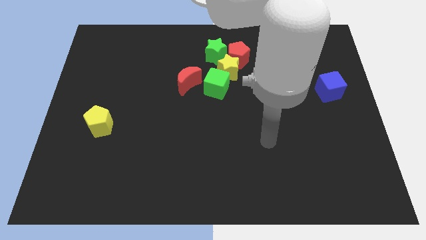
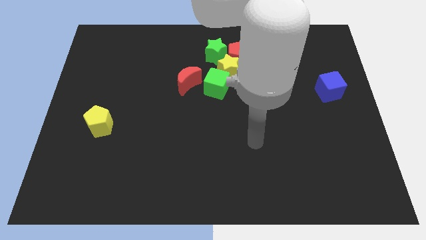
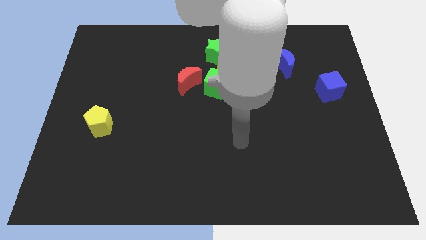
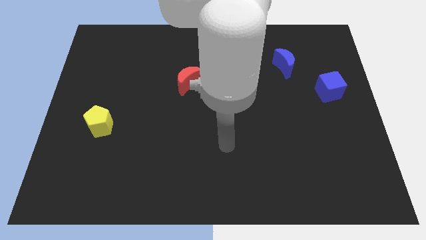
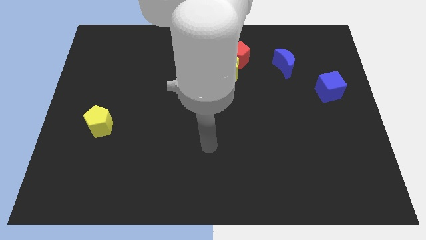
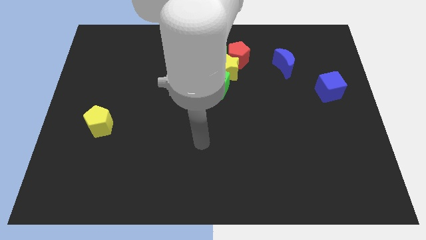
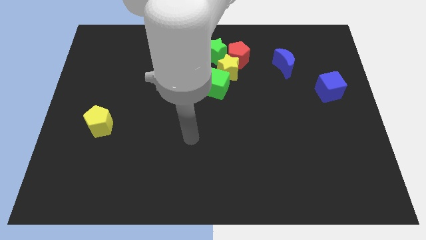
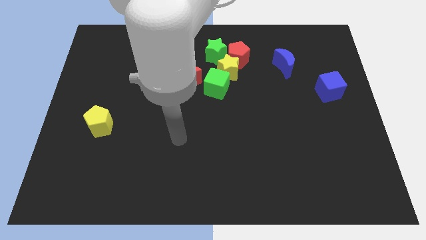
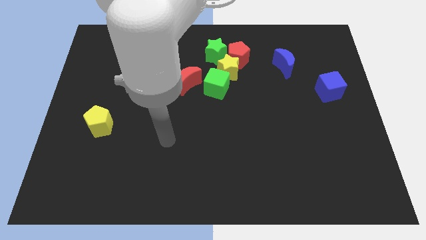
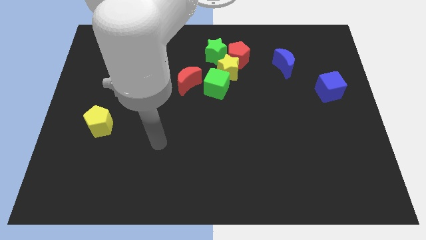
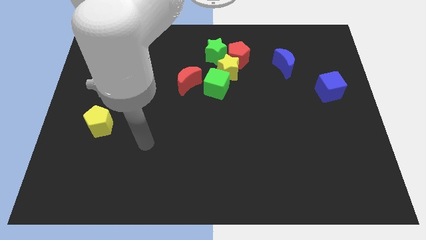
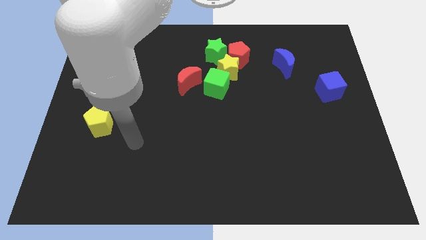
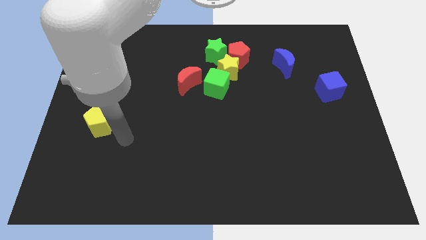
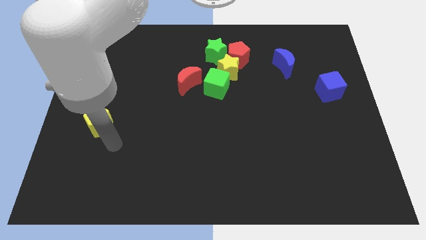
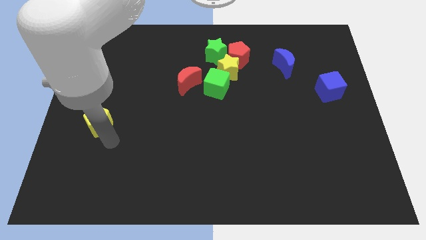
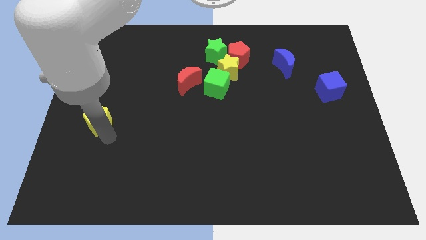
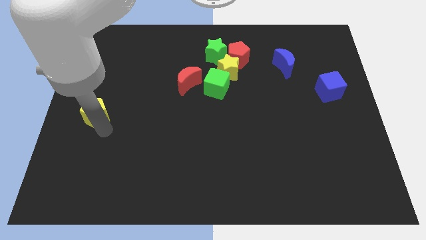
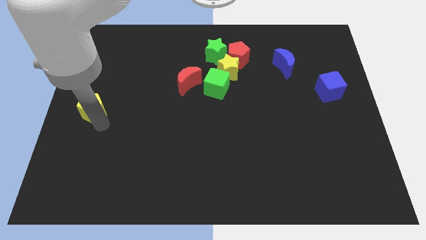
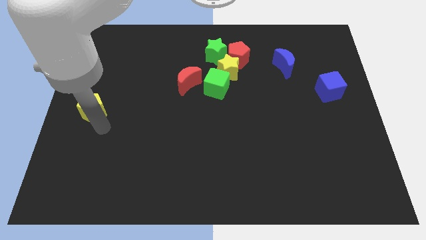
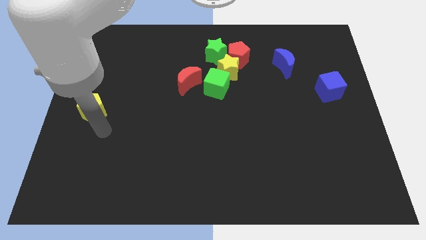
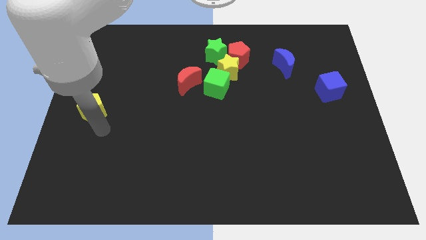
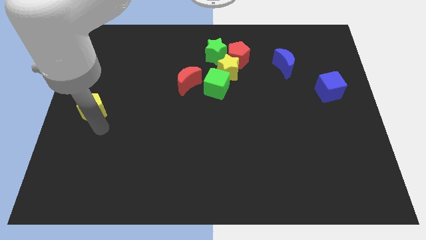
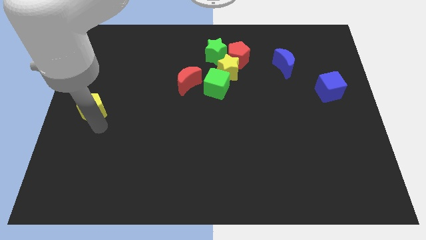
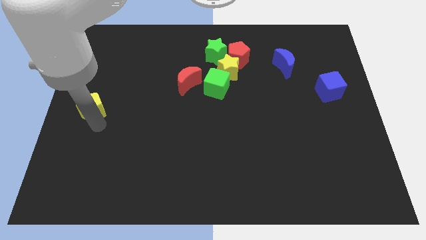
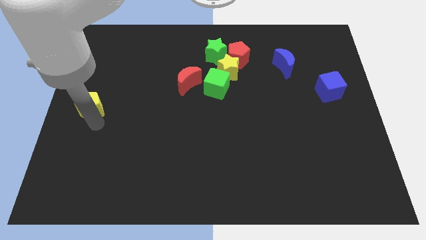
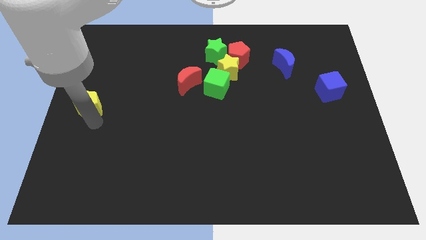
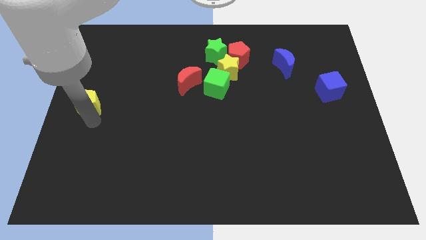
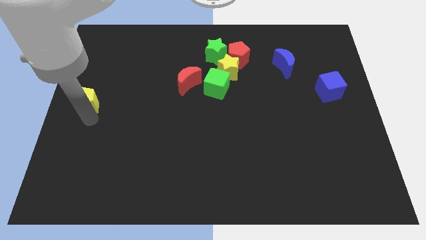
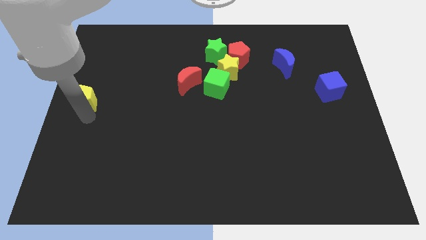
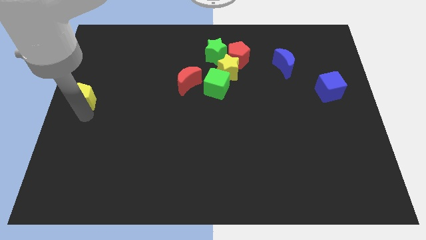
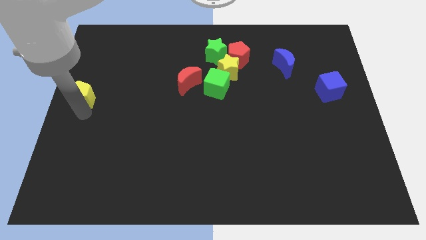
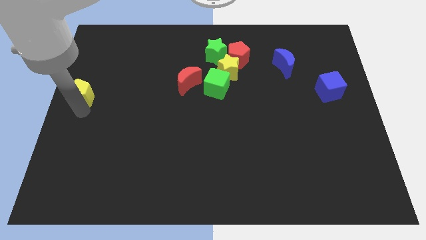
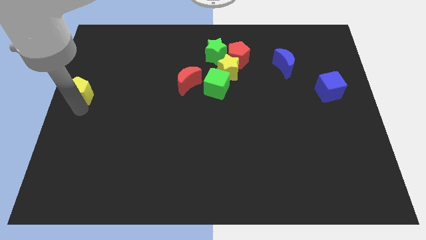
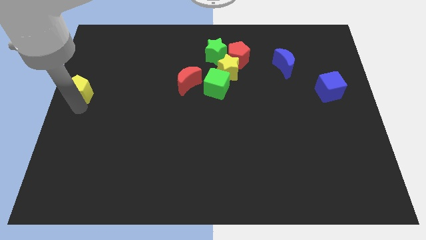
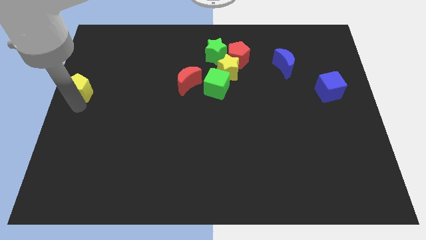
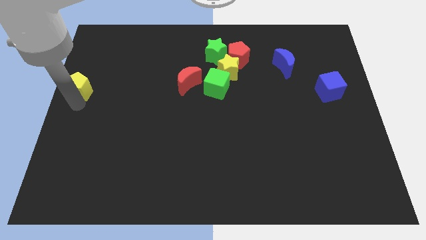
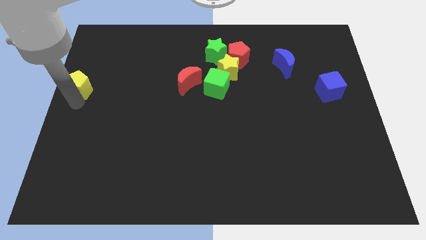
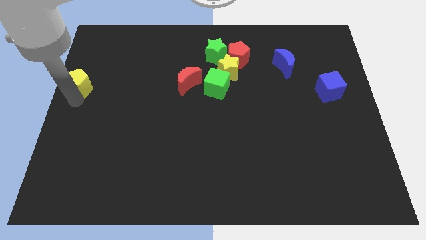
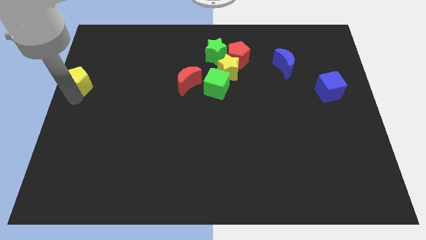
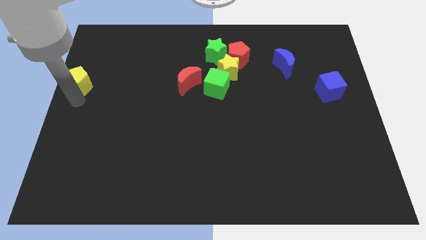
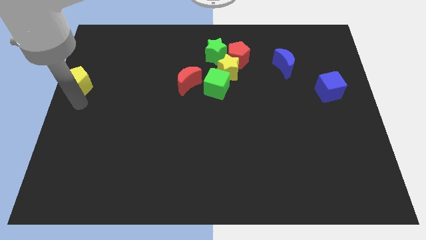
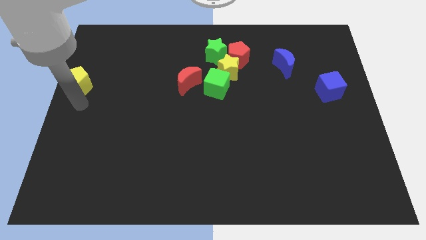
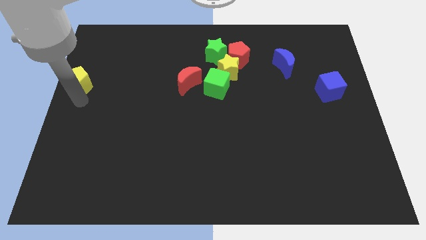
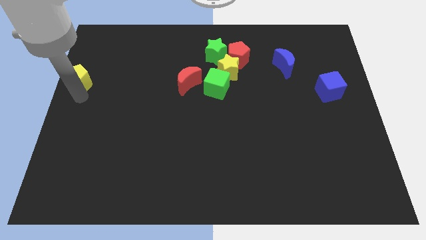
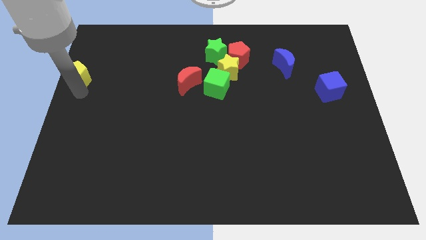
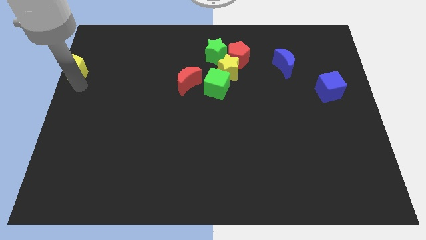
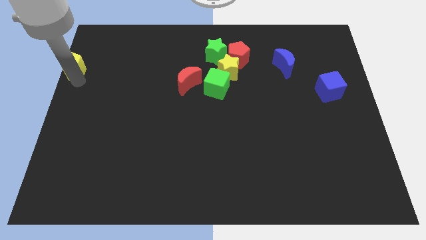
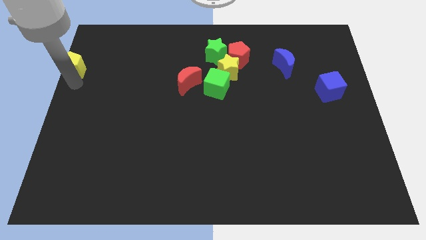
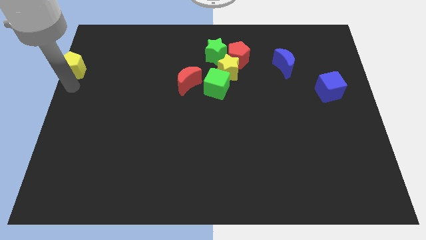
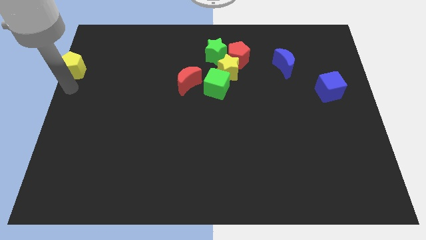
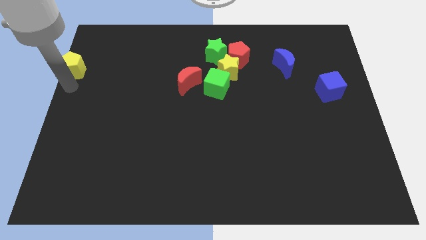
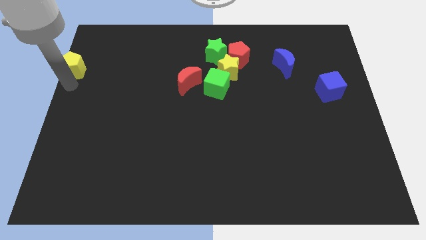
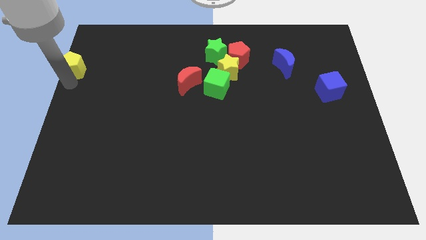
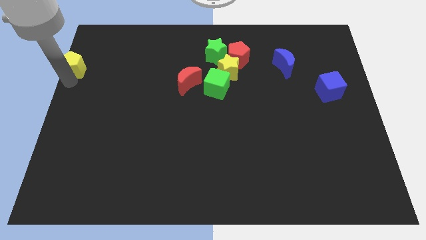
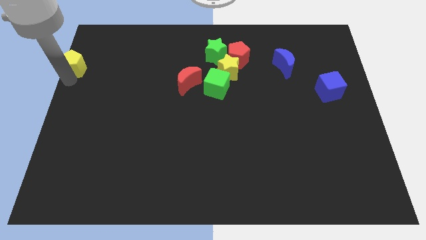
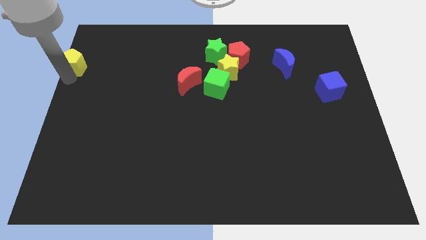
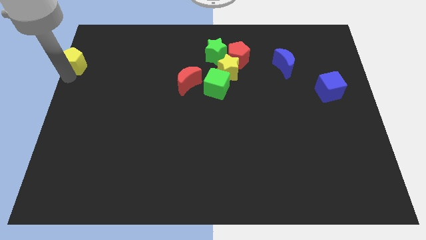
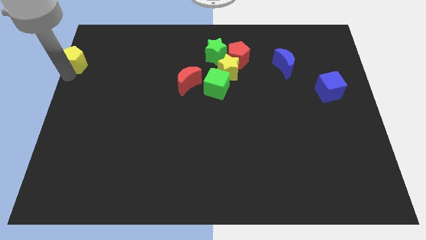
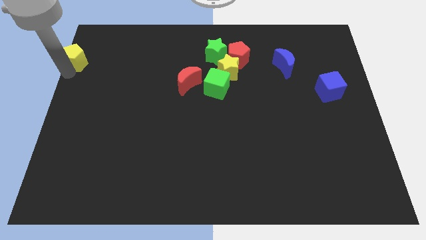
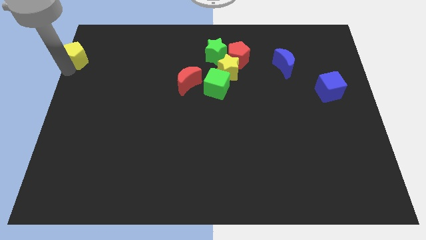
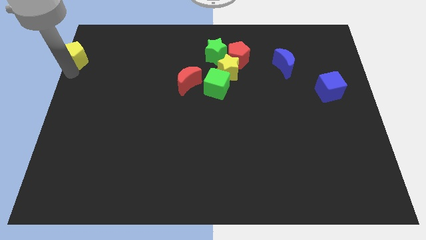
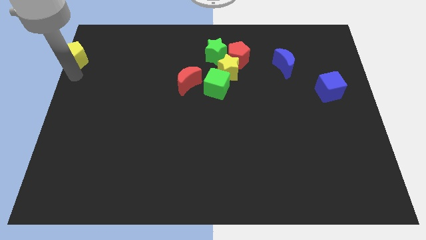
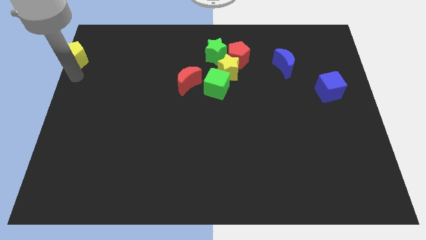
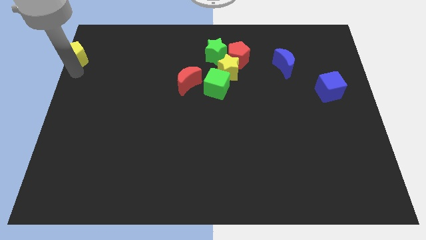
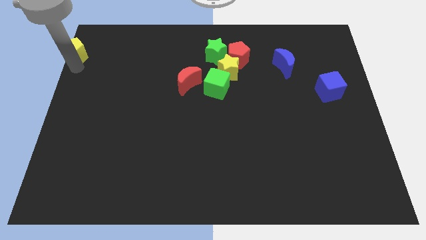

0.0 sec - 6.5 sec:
move the yellow pentagon to the top left of the board

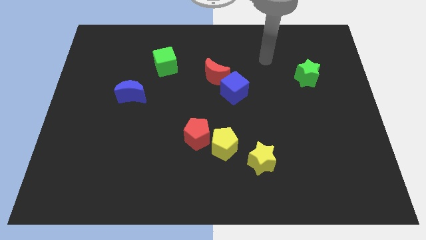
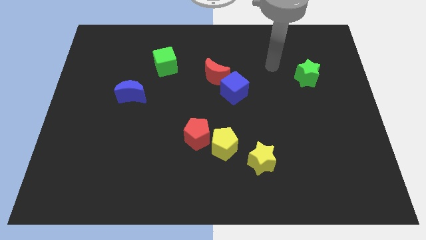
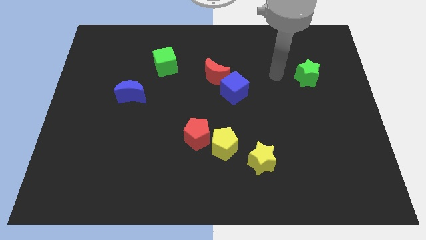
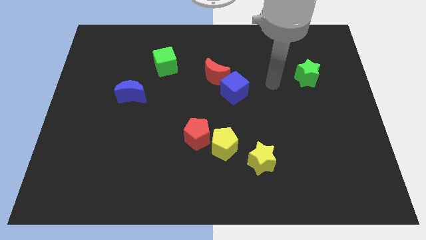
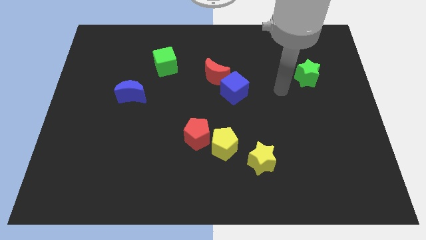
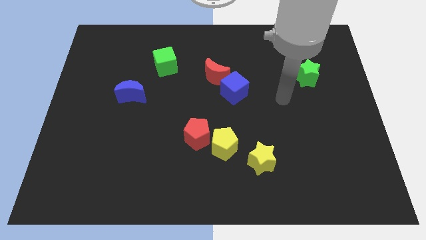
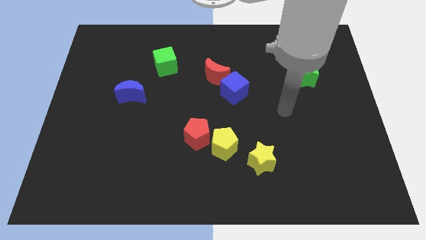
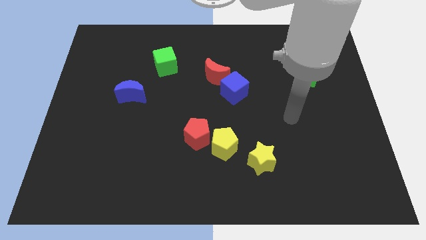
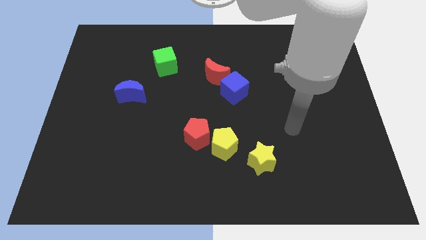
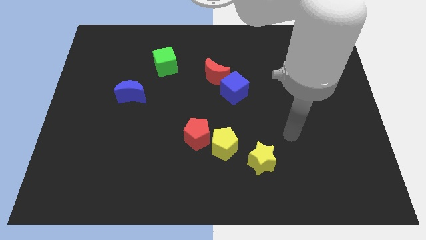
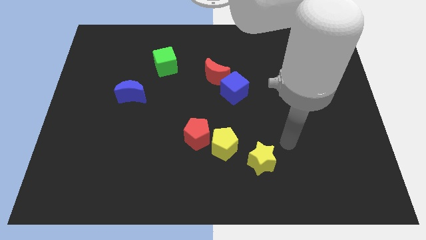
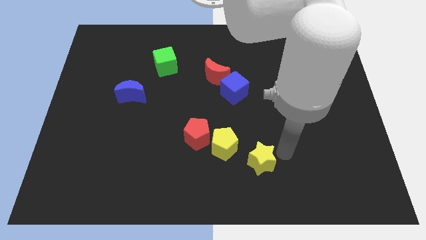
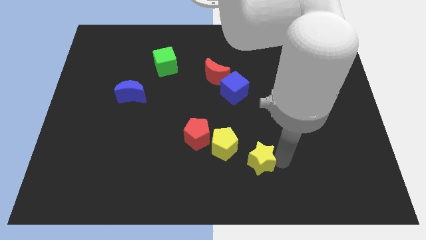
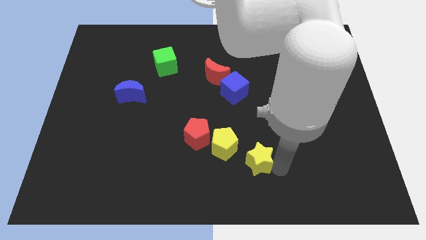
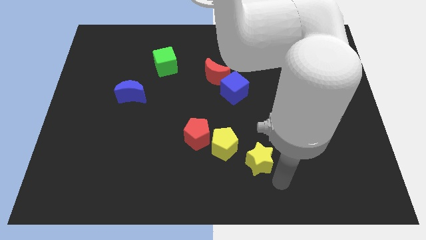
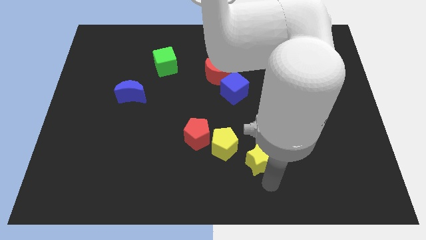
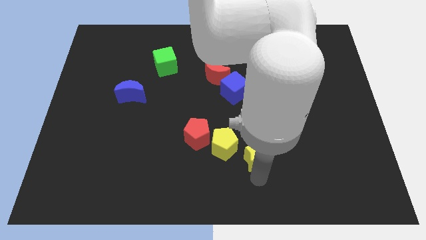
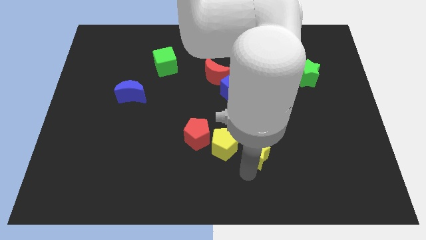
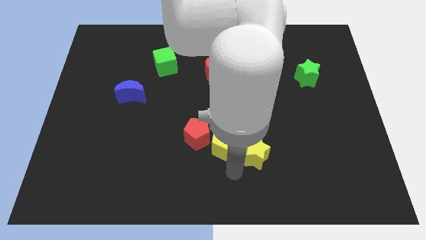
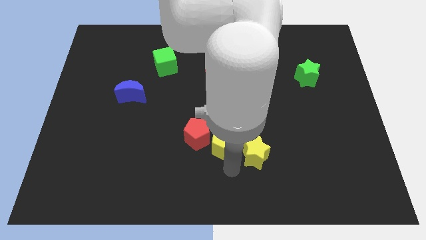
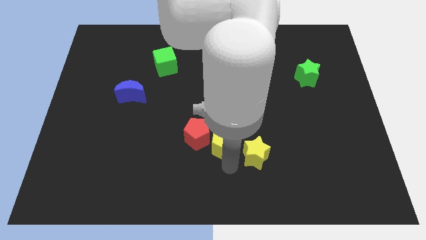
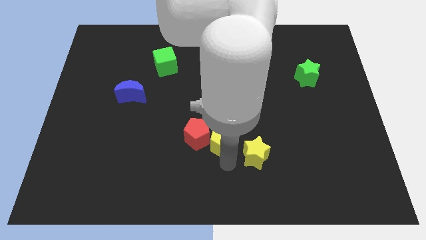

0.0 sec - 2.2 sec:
move the yellow pentagon to the middle
